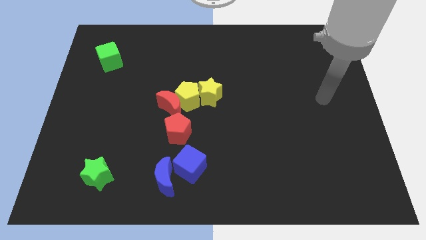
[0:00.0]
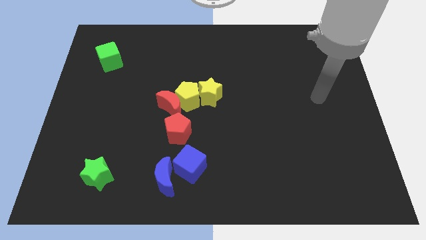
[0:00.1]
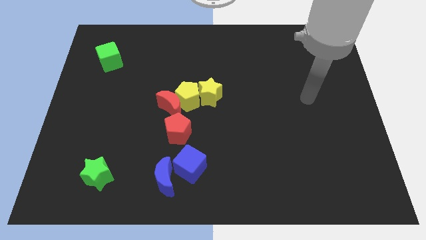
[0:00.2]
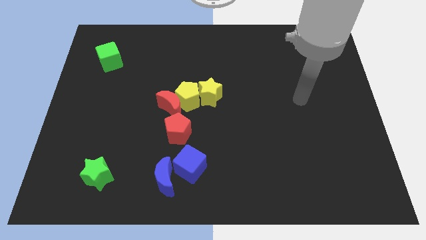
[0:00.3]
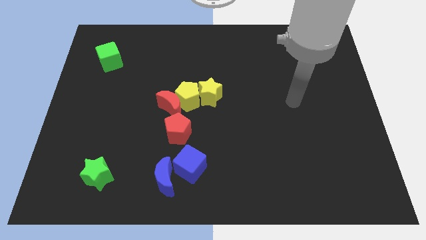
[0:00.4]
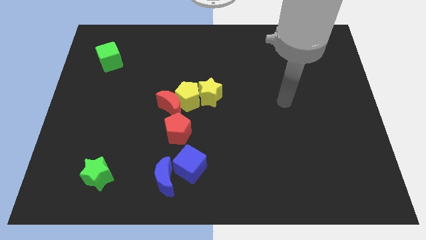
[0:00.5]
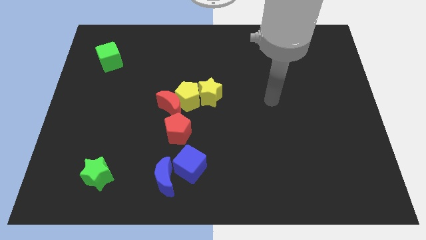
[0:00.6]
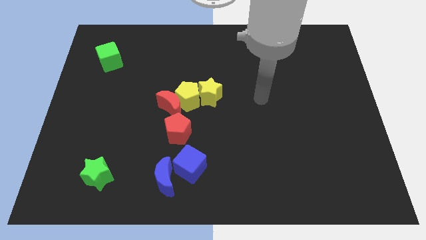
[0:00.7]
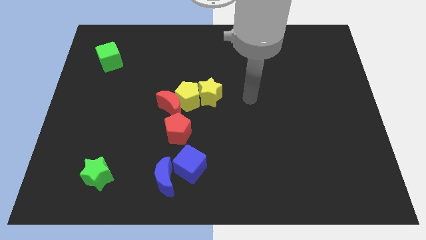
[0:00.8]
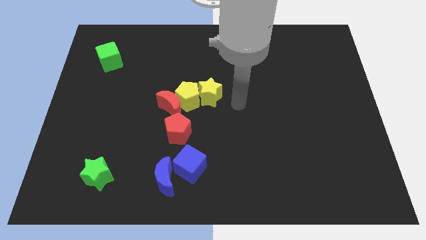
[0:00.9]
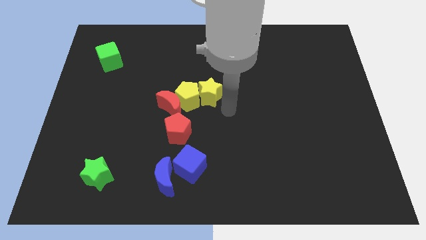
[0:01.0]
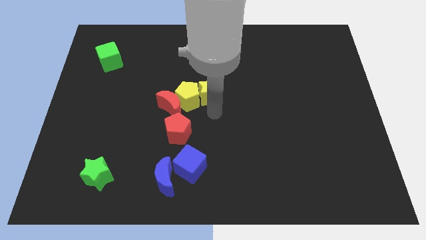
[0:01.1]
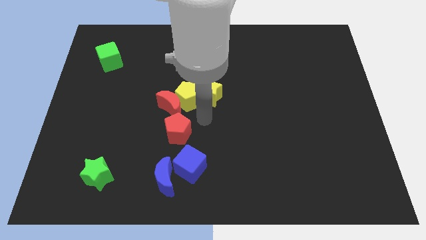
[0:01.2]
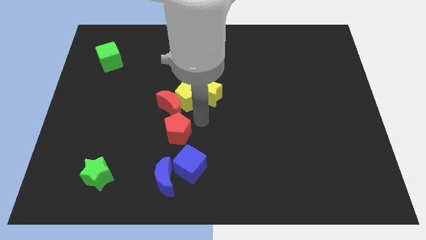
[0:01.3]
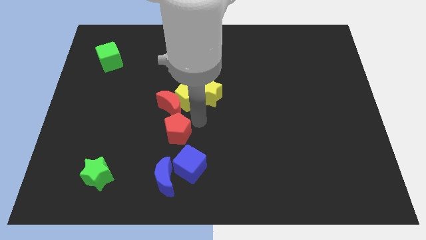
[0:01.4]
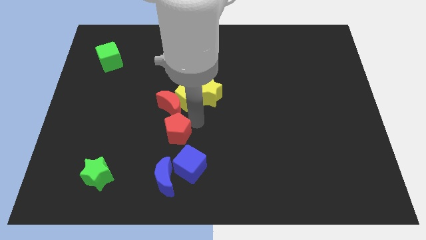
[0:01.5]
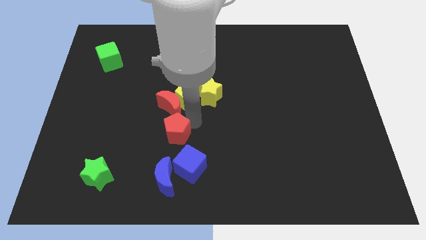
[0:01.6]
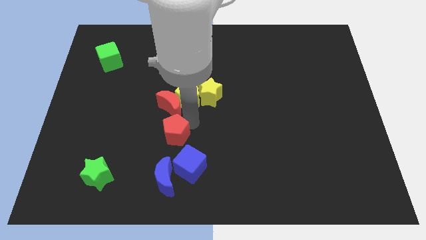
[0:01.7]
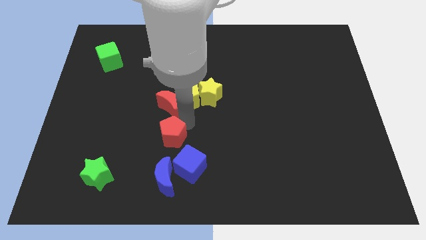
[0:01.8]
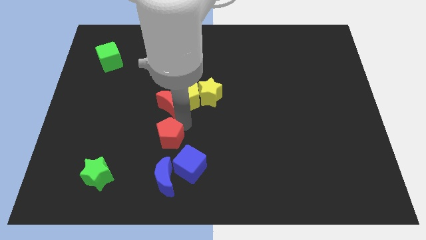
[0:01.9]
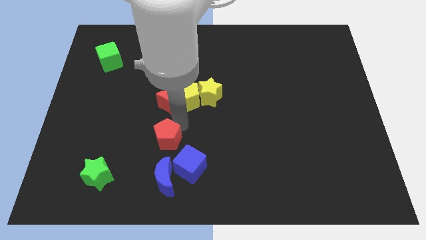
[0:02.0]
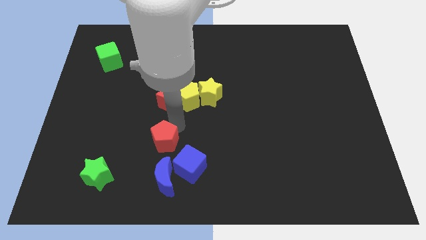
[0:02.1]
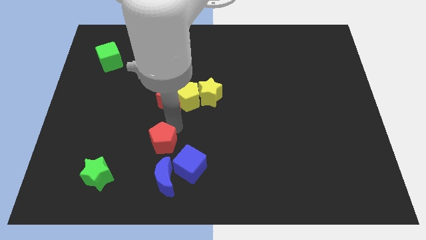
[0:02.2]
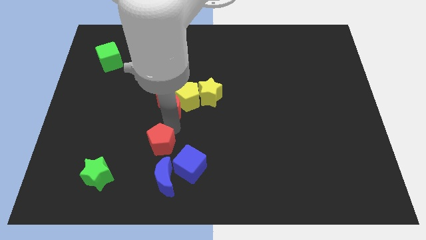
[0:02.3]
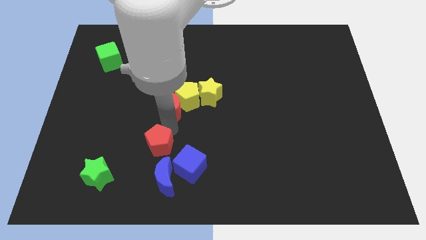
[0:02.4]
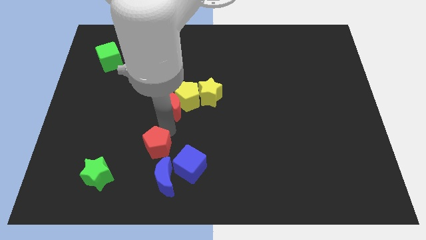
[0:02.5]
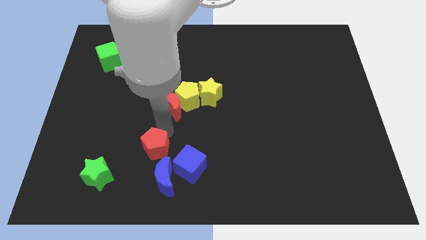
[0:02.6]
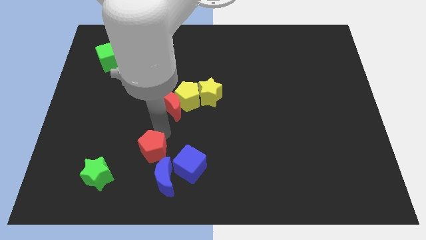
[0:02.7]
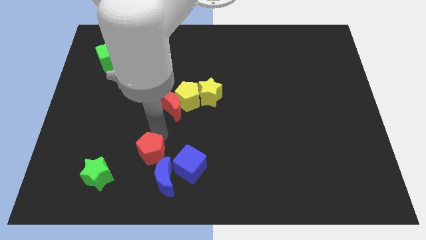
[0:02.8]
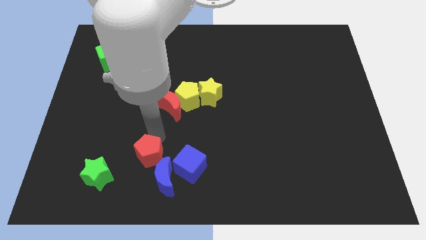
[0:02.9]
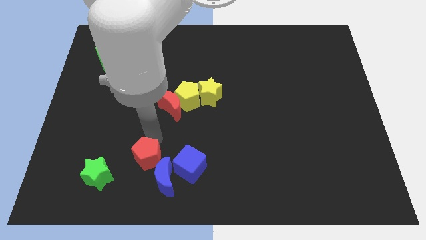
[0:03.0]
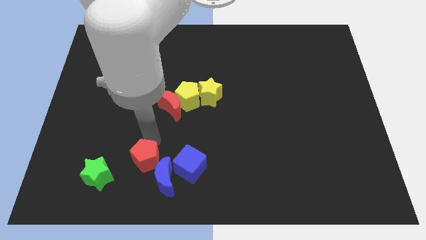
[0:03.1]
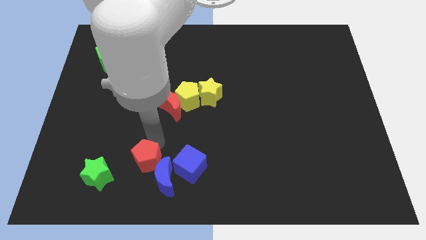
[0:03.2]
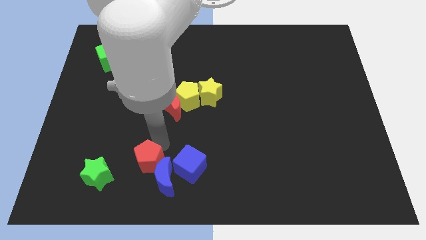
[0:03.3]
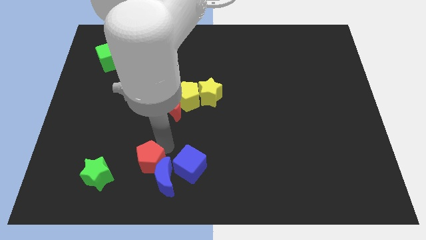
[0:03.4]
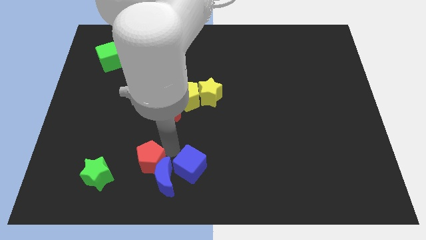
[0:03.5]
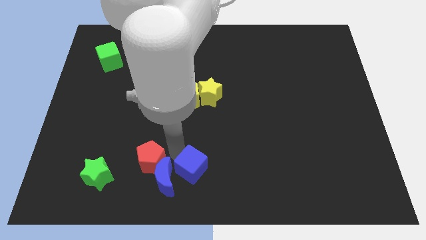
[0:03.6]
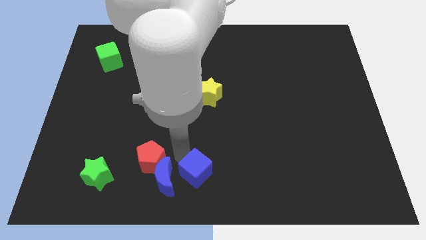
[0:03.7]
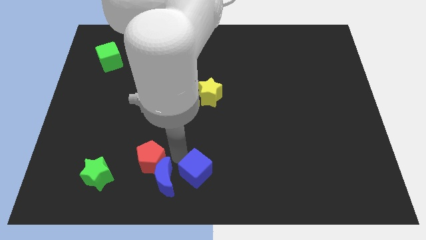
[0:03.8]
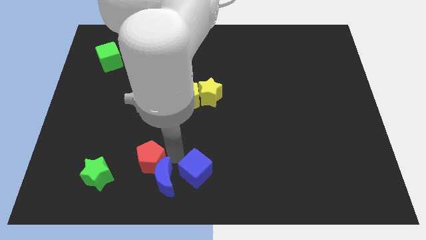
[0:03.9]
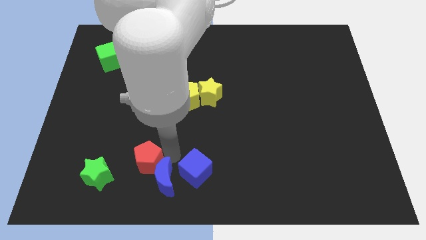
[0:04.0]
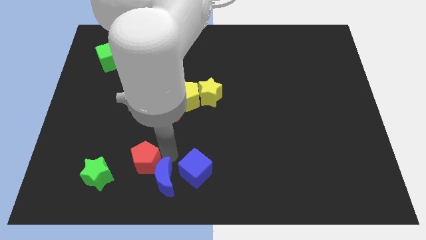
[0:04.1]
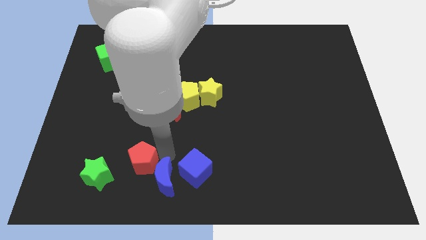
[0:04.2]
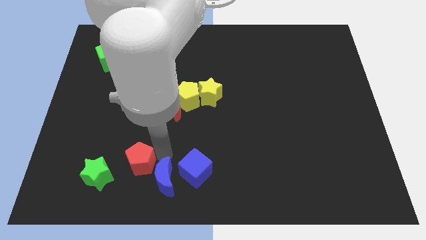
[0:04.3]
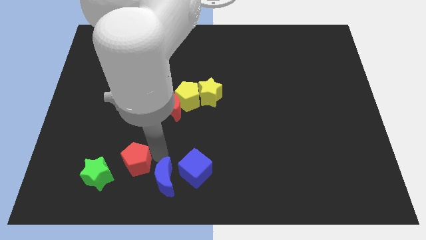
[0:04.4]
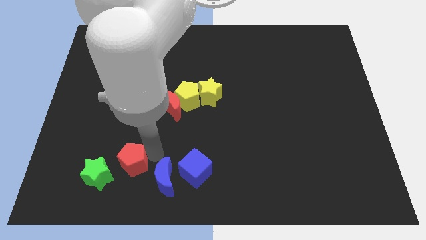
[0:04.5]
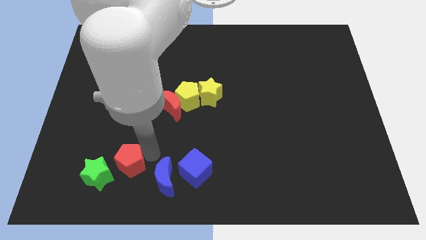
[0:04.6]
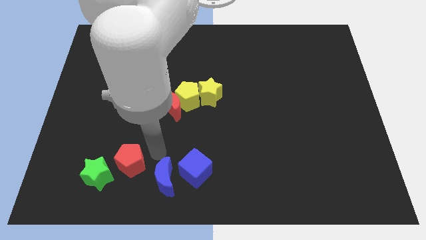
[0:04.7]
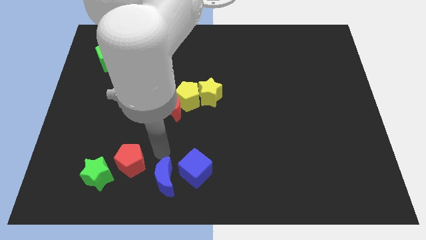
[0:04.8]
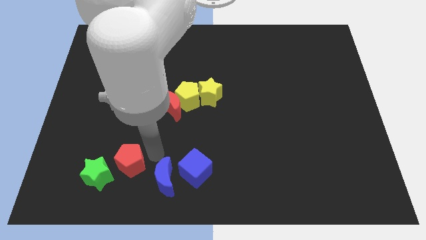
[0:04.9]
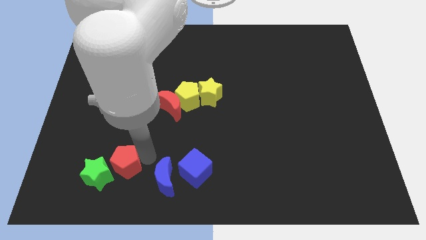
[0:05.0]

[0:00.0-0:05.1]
move the red pentagon next to the green star

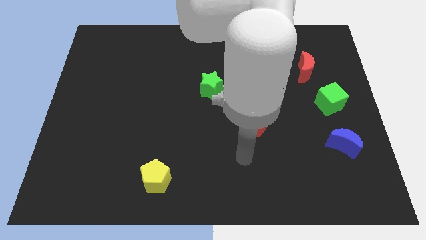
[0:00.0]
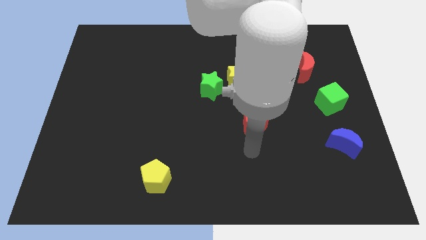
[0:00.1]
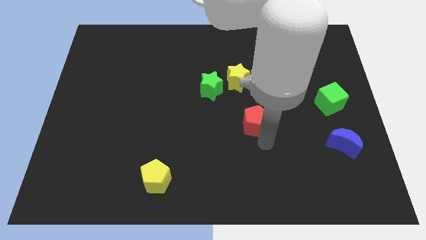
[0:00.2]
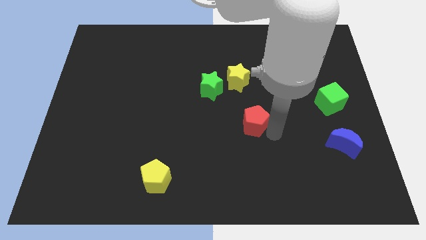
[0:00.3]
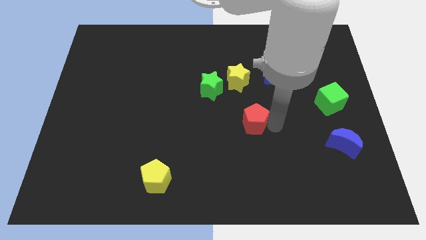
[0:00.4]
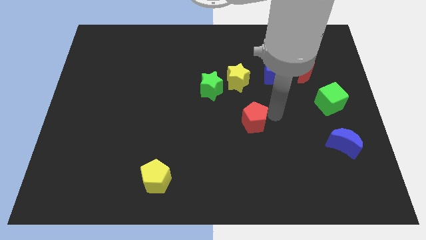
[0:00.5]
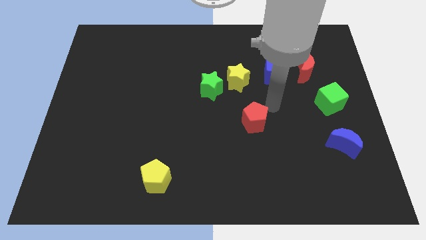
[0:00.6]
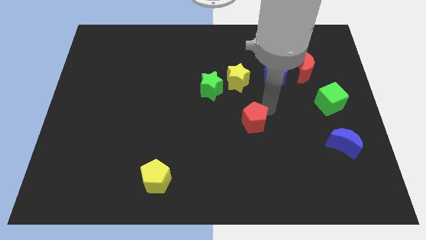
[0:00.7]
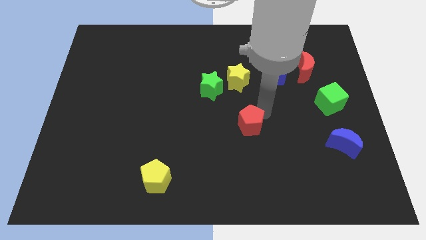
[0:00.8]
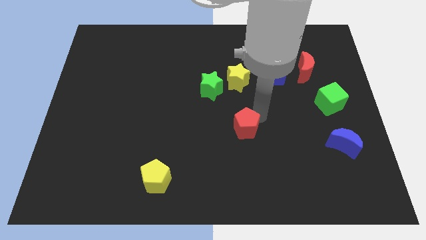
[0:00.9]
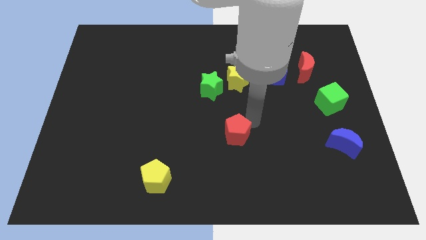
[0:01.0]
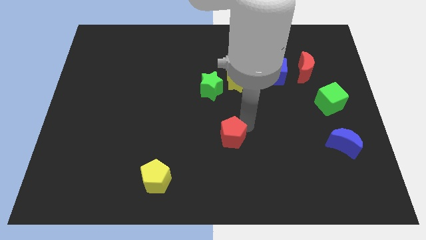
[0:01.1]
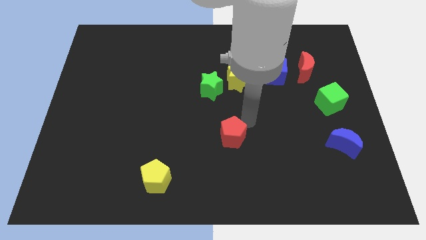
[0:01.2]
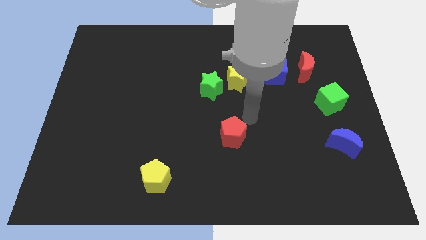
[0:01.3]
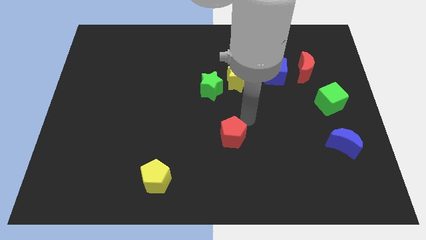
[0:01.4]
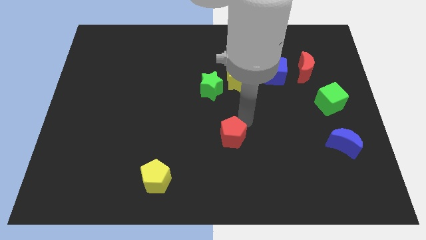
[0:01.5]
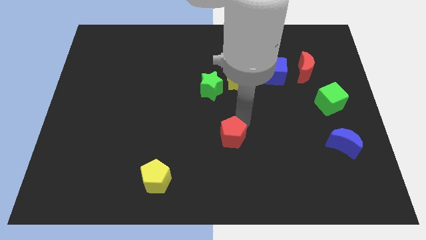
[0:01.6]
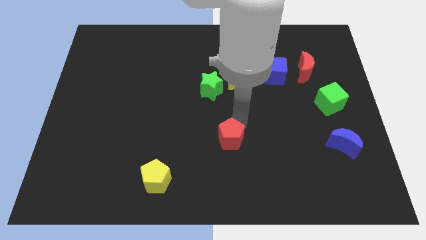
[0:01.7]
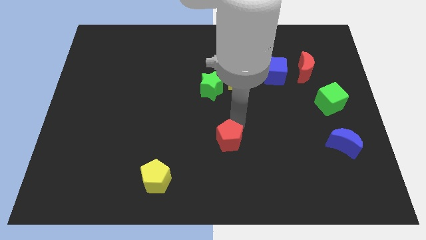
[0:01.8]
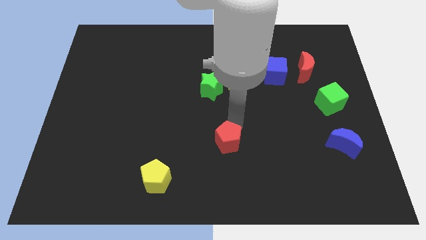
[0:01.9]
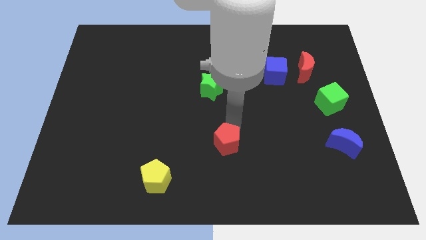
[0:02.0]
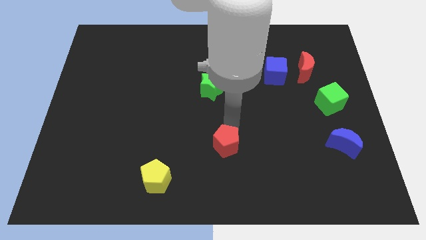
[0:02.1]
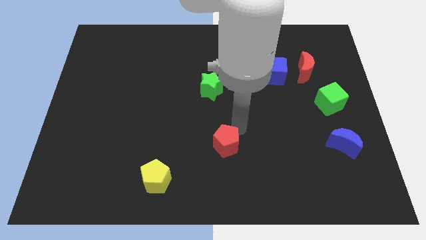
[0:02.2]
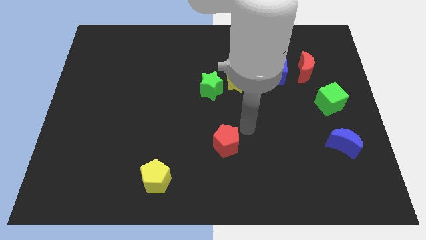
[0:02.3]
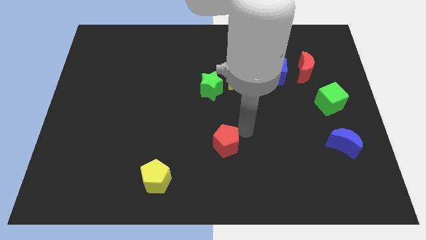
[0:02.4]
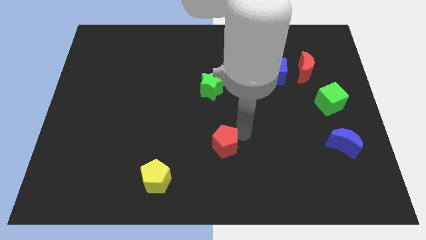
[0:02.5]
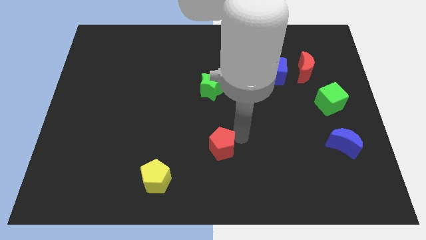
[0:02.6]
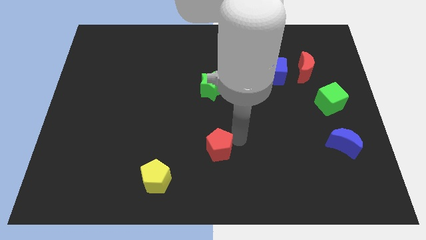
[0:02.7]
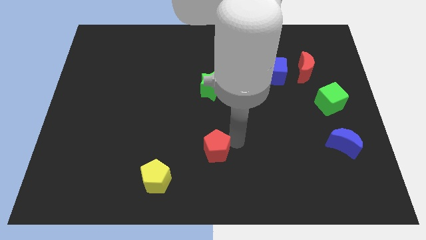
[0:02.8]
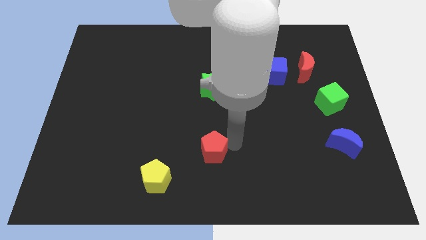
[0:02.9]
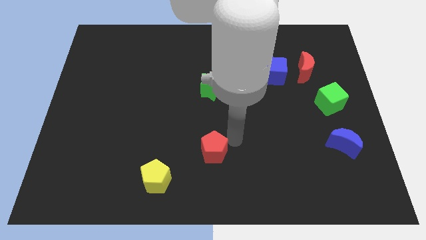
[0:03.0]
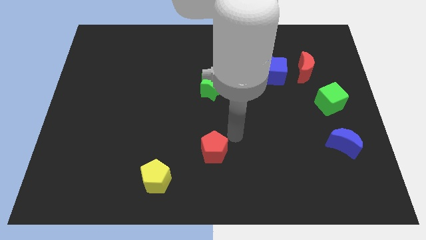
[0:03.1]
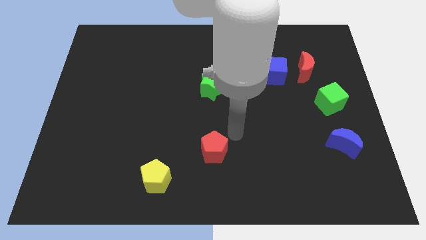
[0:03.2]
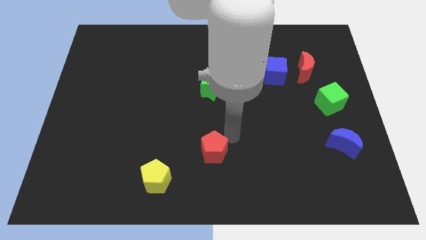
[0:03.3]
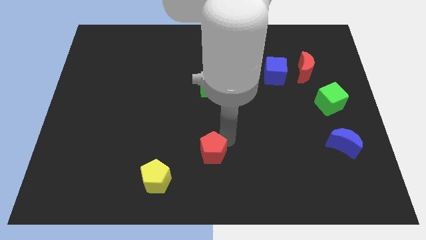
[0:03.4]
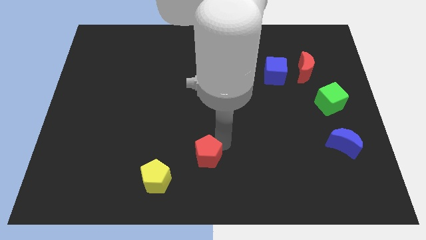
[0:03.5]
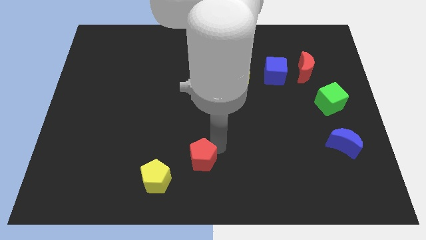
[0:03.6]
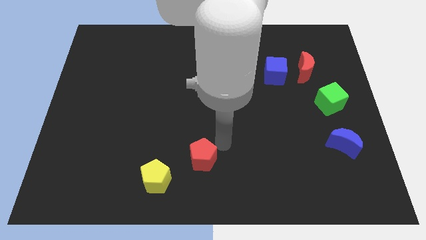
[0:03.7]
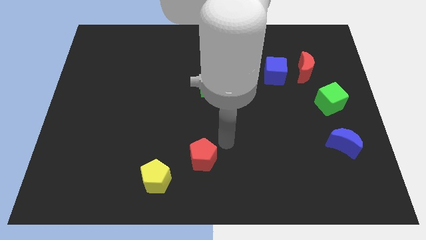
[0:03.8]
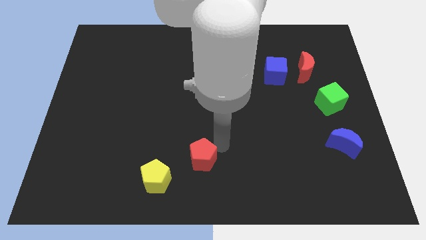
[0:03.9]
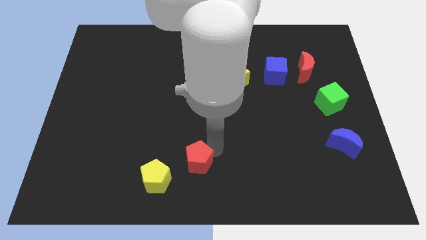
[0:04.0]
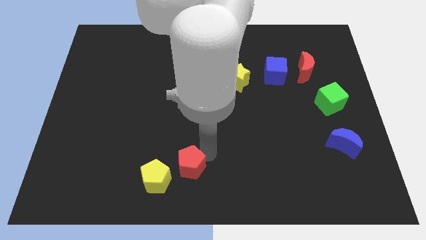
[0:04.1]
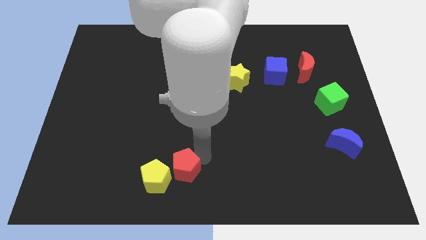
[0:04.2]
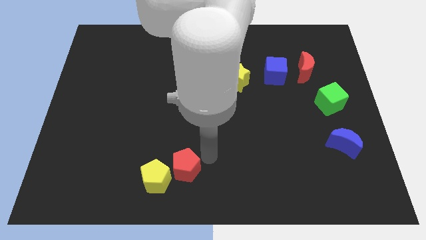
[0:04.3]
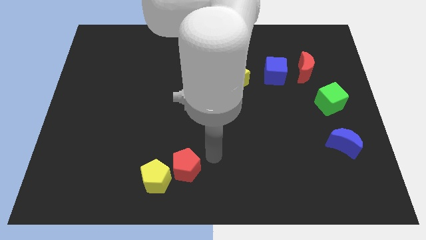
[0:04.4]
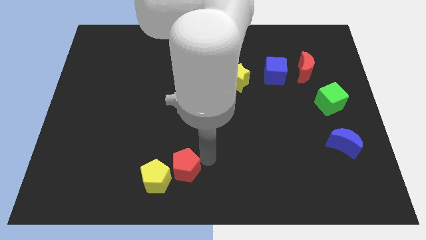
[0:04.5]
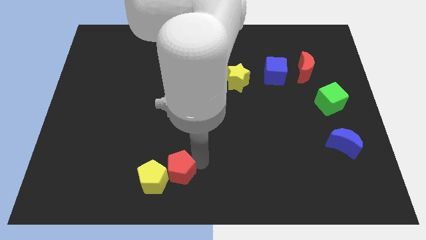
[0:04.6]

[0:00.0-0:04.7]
push the red pentagon close to the yellow pentagon
